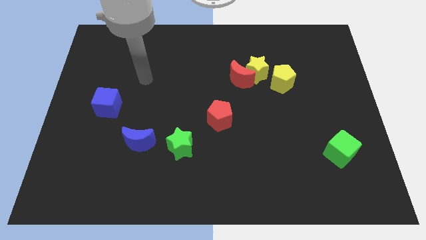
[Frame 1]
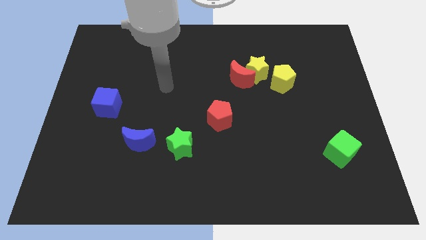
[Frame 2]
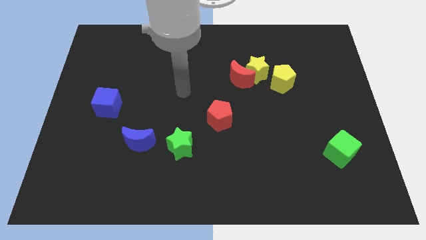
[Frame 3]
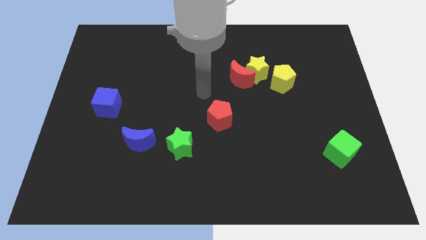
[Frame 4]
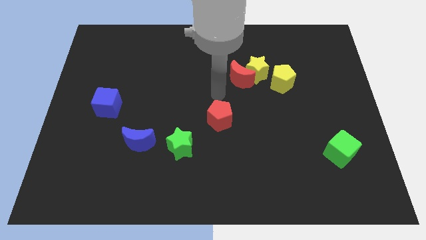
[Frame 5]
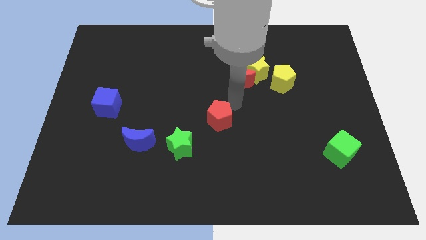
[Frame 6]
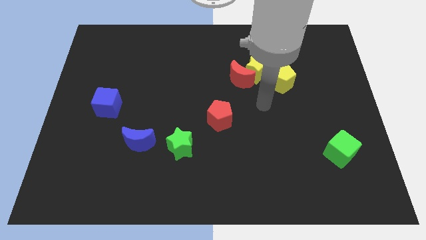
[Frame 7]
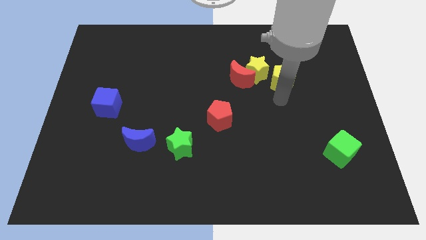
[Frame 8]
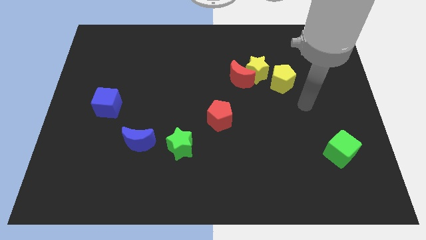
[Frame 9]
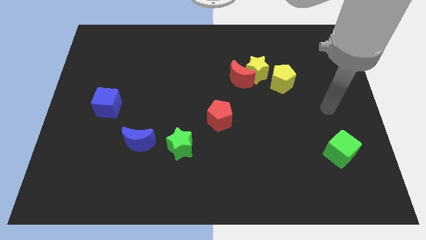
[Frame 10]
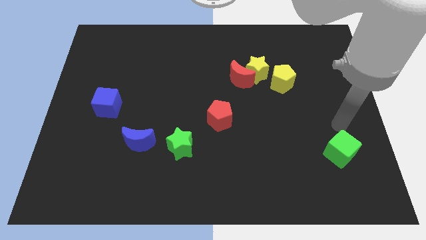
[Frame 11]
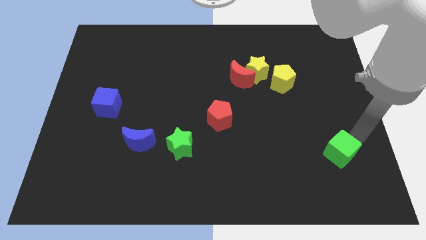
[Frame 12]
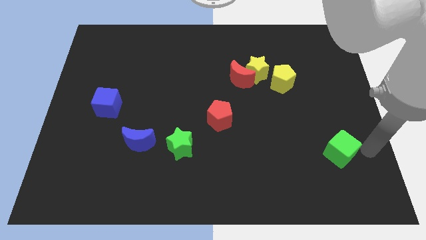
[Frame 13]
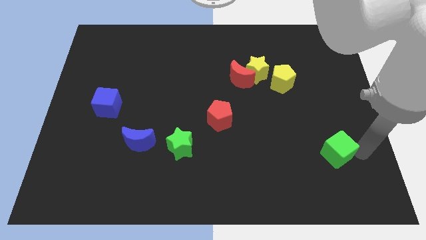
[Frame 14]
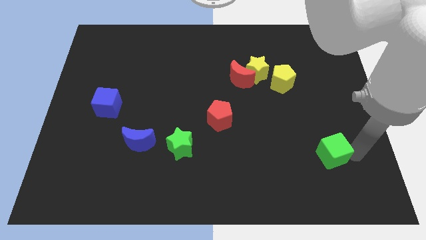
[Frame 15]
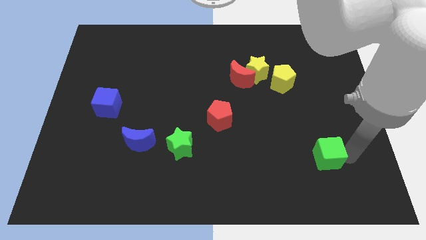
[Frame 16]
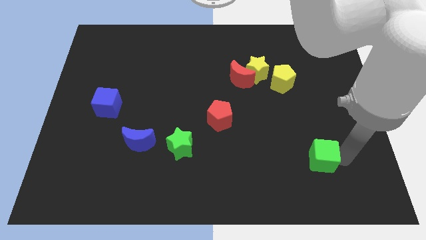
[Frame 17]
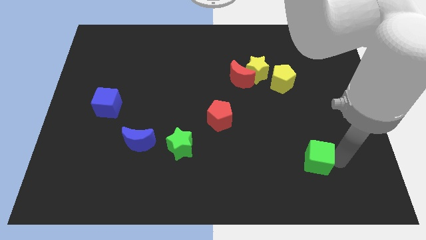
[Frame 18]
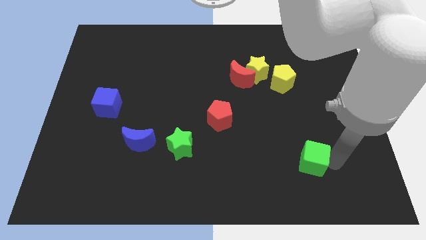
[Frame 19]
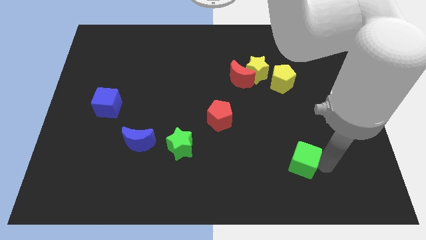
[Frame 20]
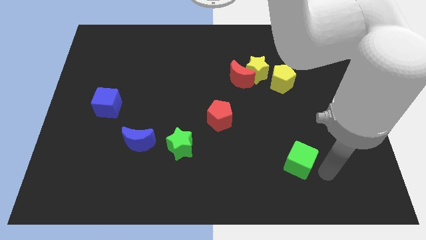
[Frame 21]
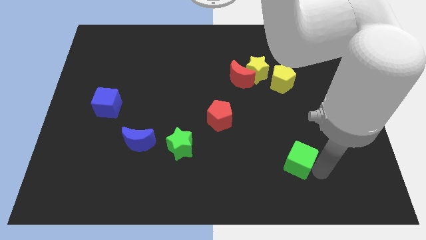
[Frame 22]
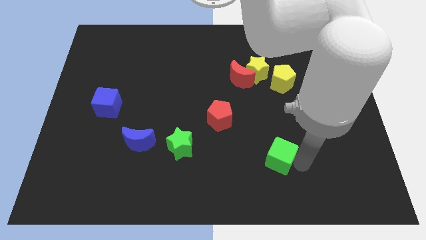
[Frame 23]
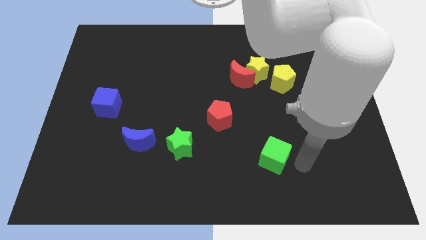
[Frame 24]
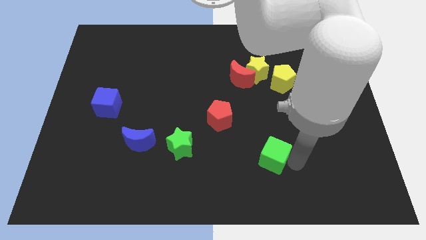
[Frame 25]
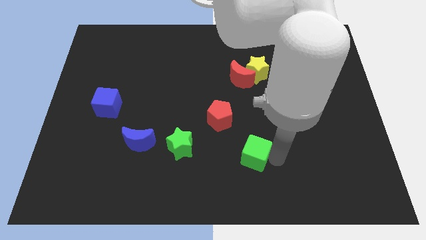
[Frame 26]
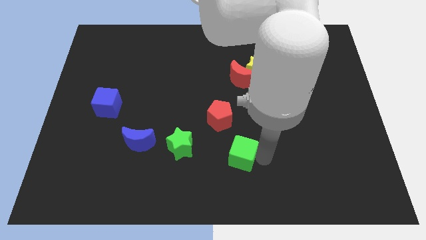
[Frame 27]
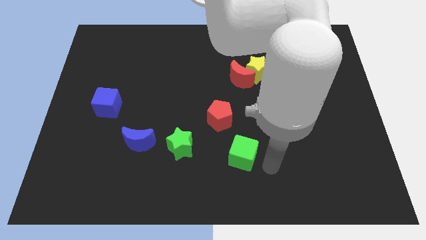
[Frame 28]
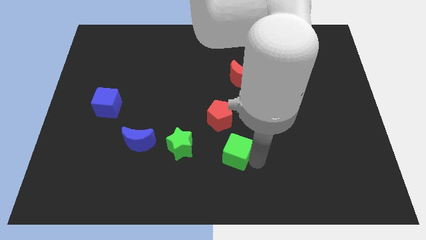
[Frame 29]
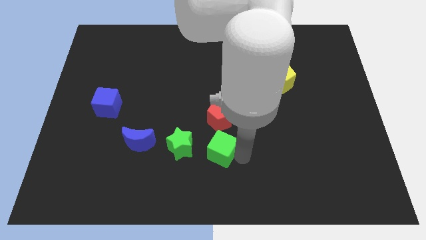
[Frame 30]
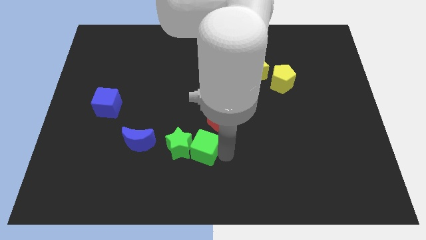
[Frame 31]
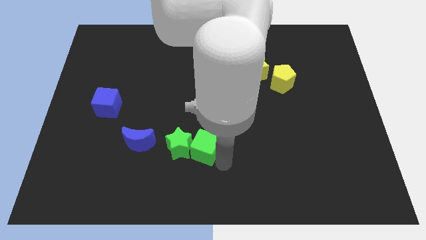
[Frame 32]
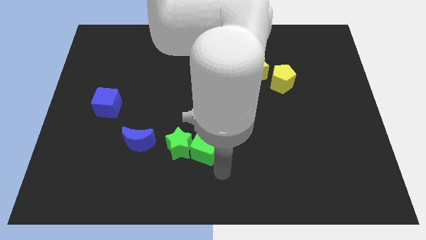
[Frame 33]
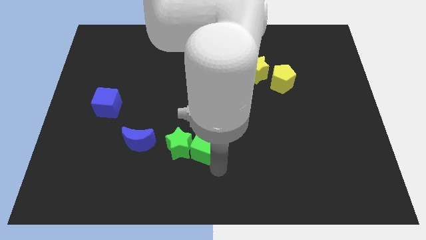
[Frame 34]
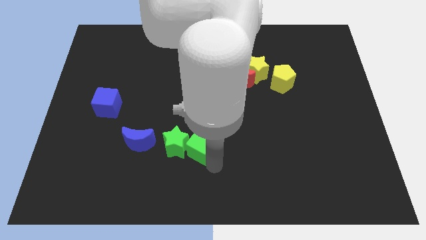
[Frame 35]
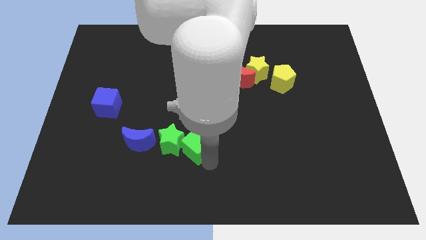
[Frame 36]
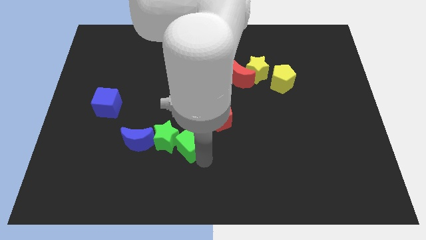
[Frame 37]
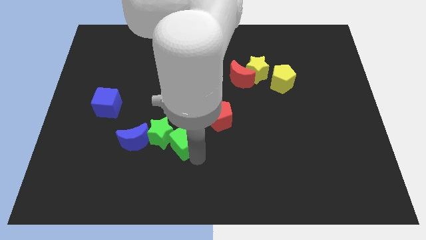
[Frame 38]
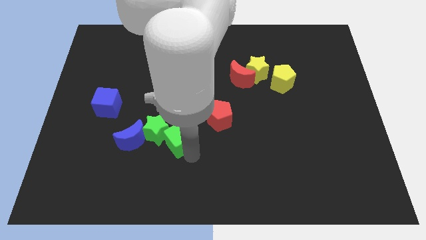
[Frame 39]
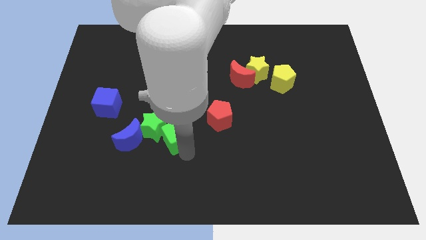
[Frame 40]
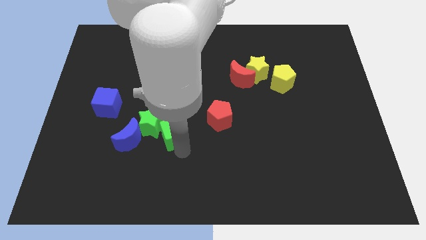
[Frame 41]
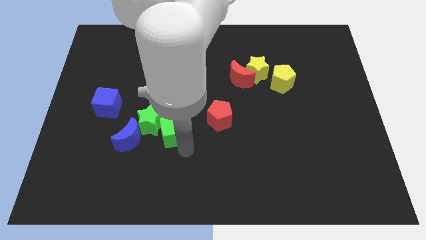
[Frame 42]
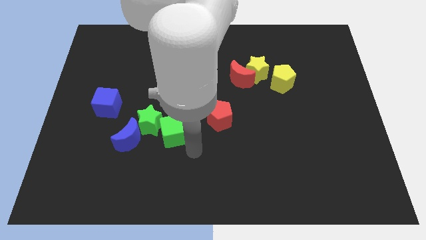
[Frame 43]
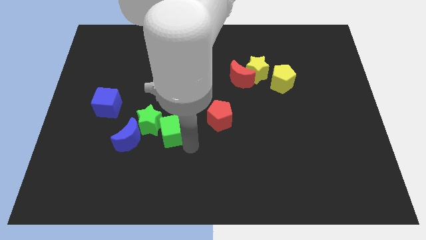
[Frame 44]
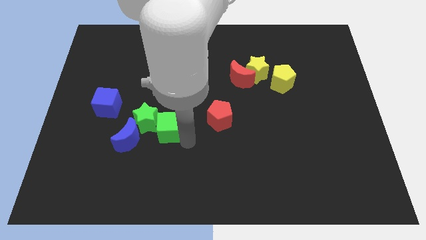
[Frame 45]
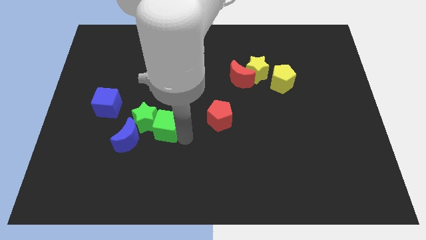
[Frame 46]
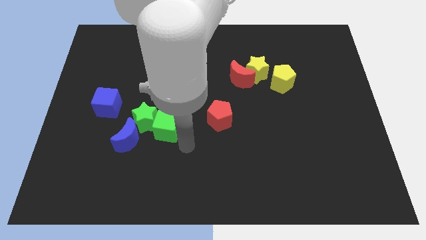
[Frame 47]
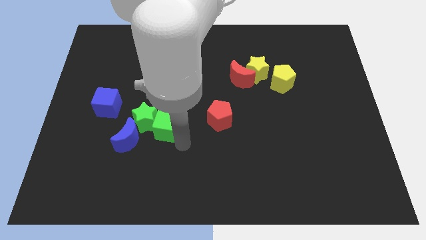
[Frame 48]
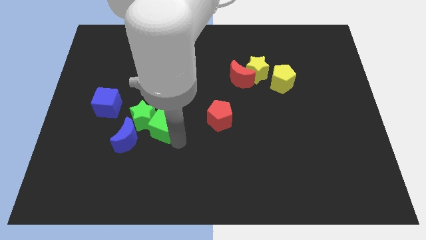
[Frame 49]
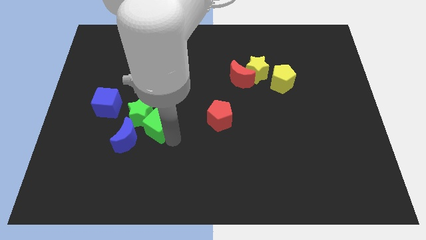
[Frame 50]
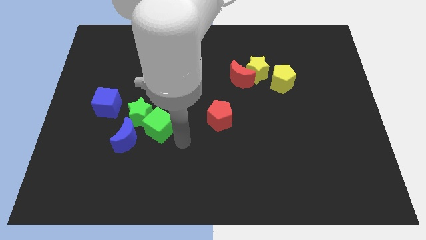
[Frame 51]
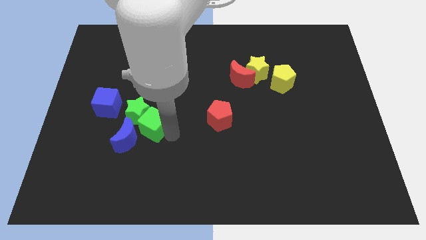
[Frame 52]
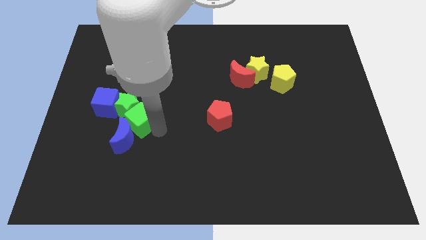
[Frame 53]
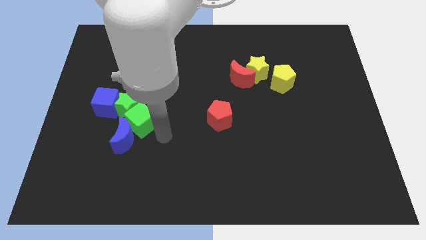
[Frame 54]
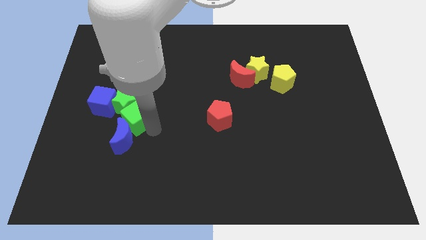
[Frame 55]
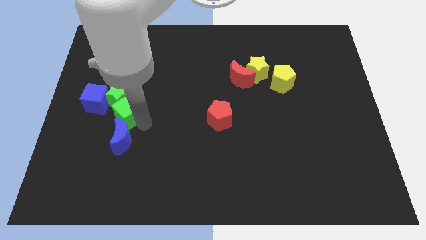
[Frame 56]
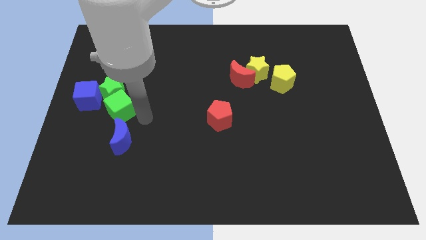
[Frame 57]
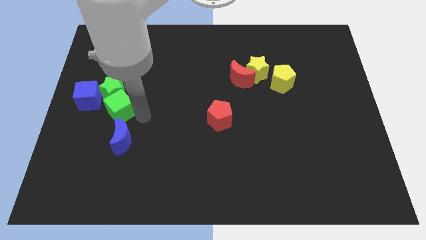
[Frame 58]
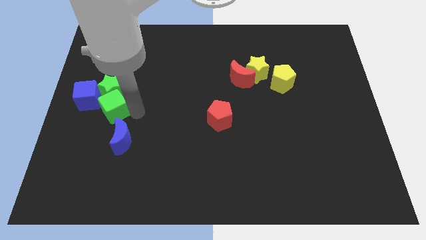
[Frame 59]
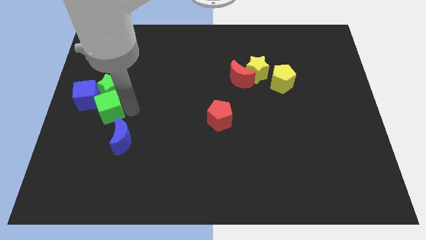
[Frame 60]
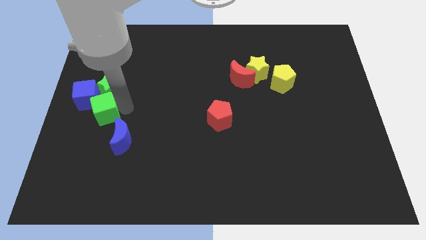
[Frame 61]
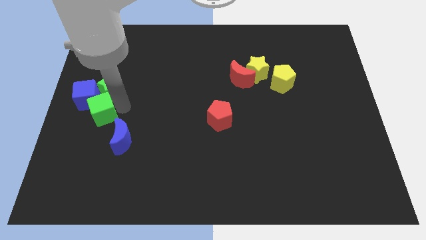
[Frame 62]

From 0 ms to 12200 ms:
push the green cube close to the blue cube
